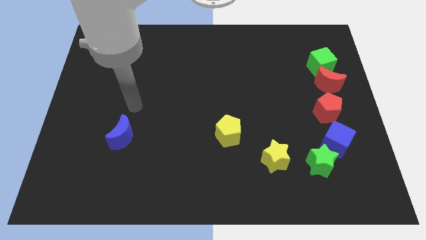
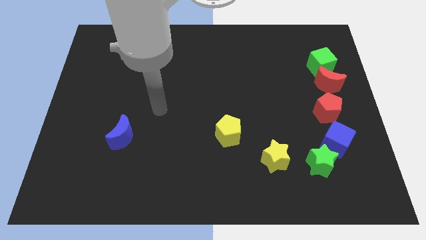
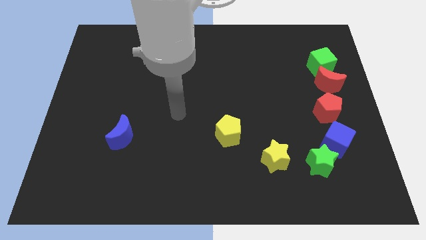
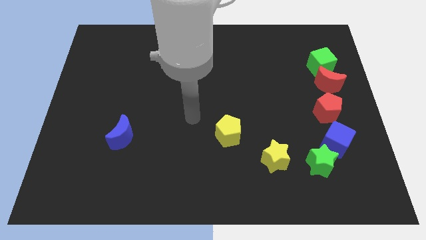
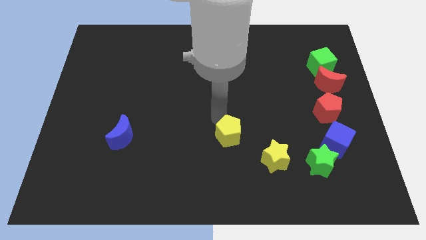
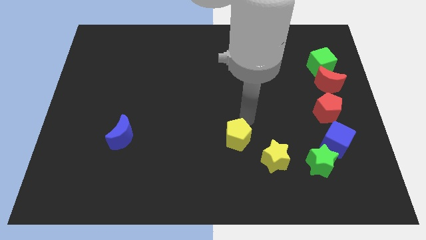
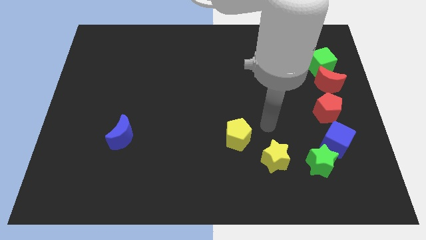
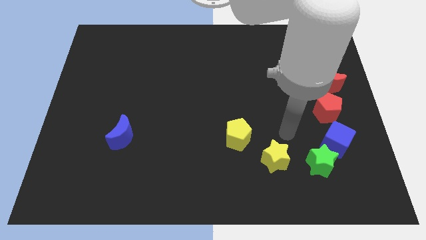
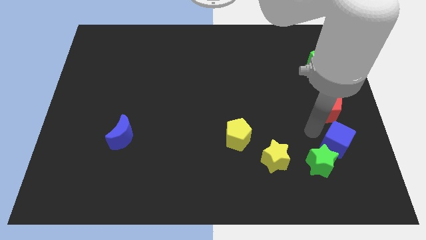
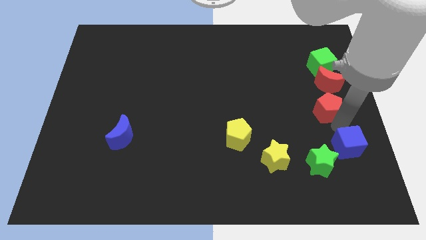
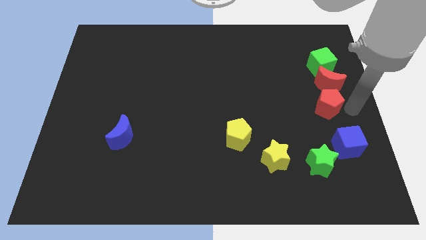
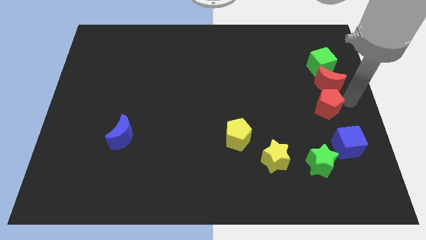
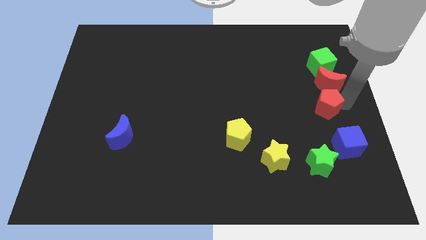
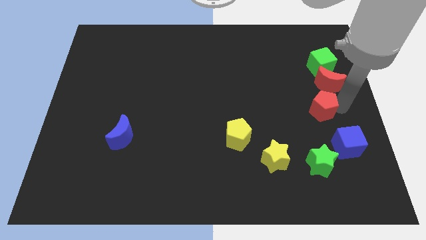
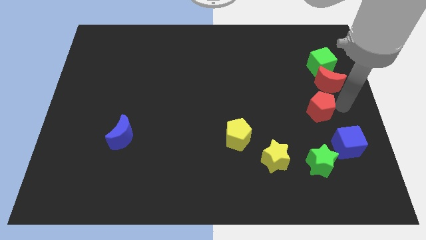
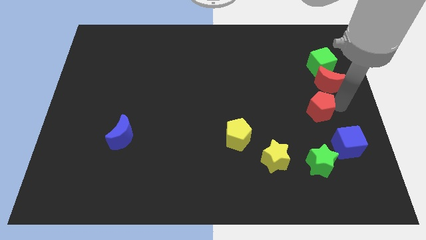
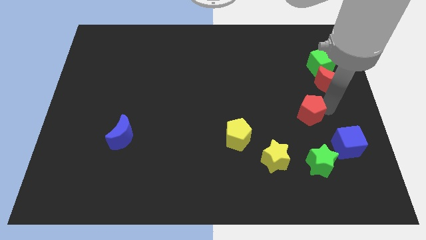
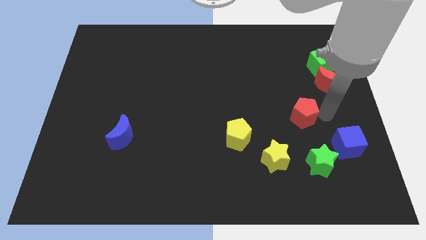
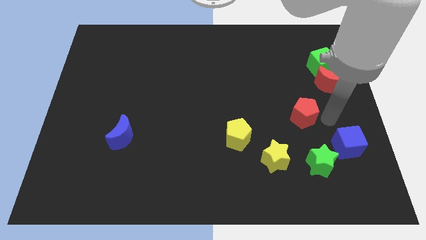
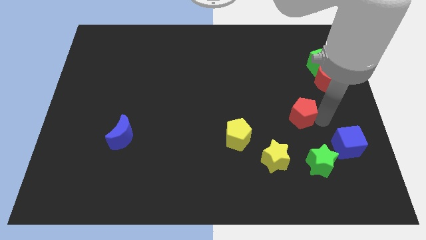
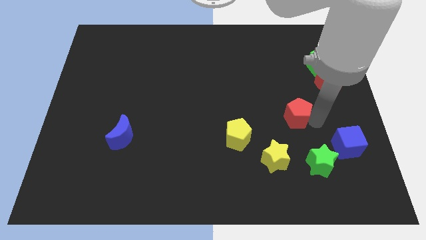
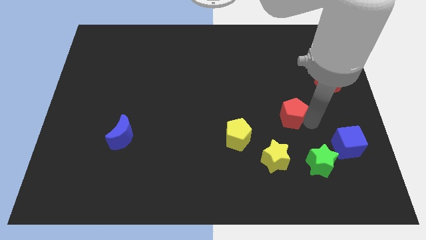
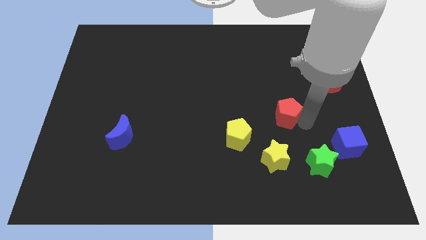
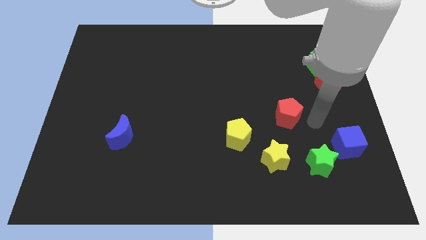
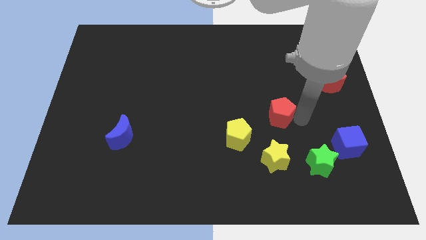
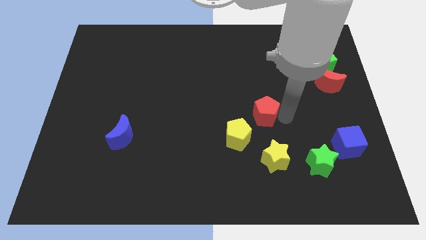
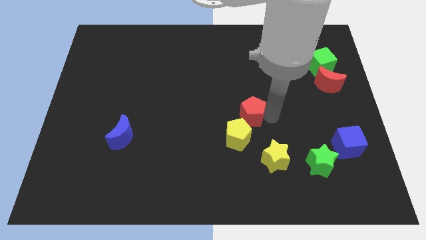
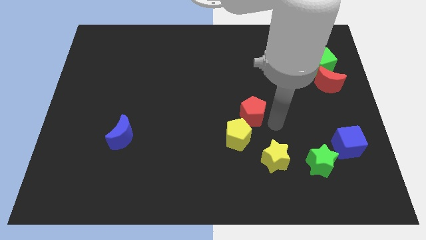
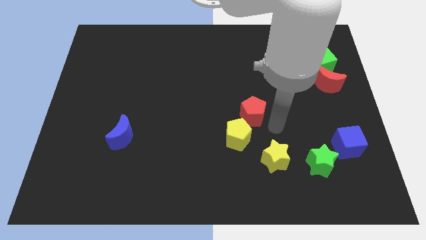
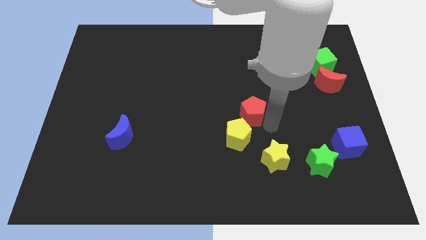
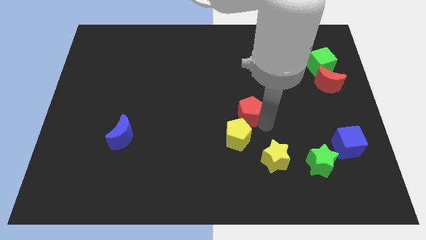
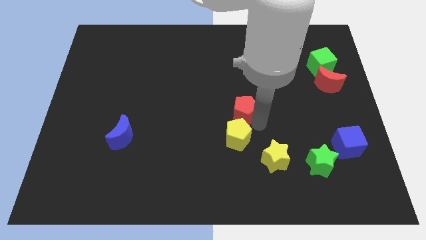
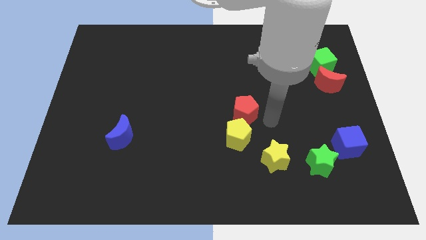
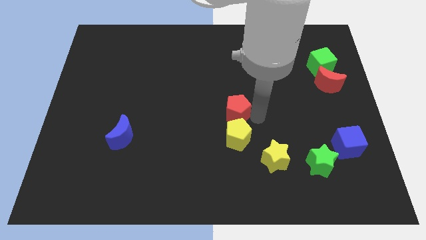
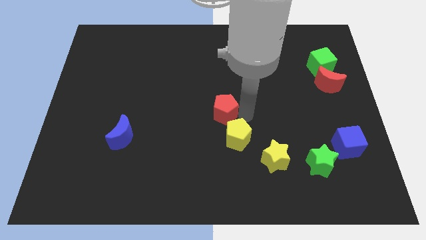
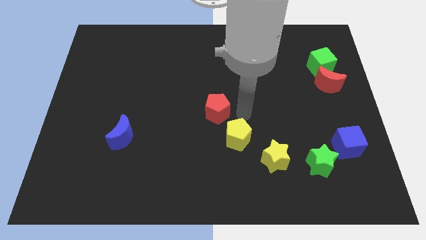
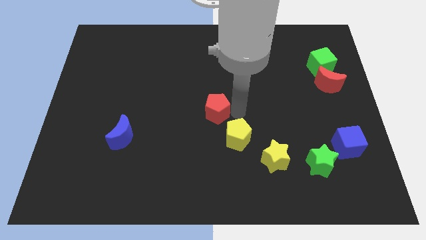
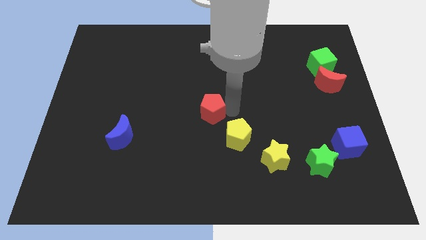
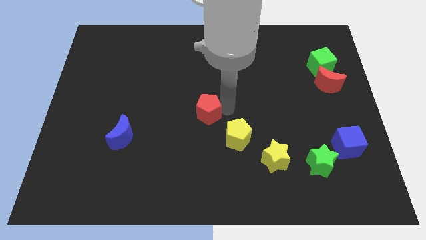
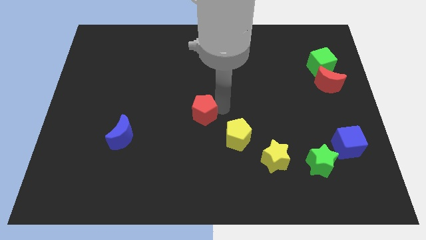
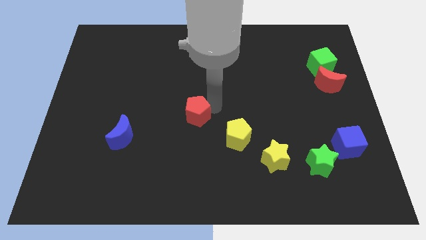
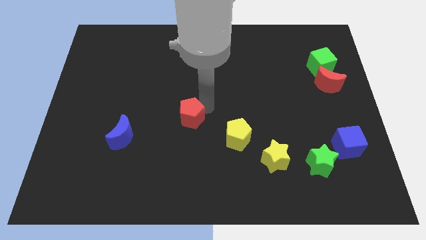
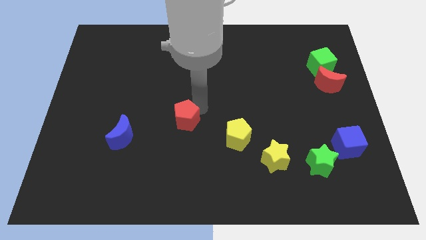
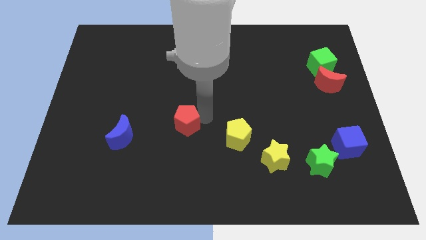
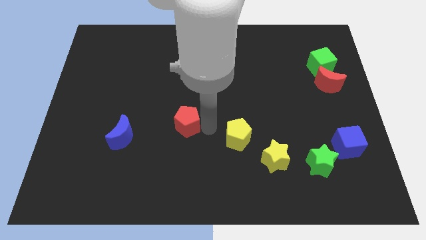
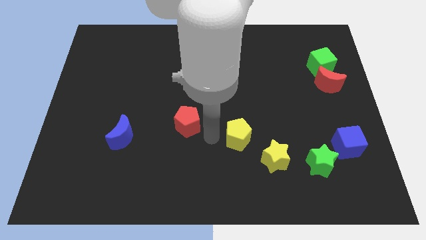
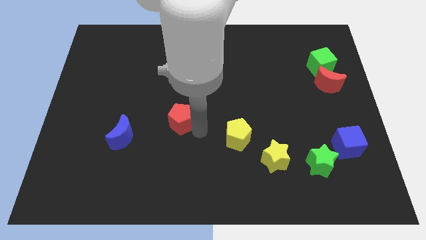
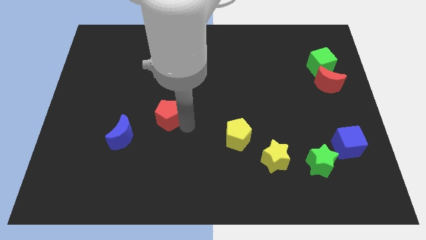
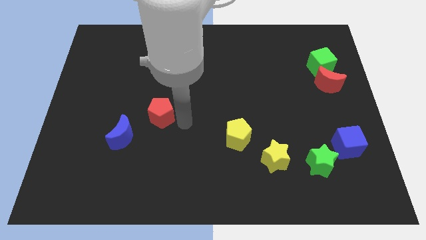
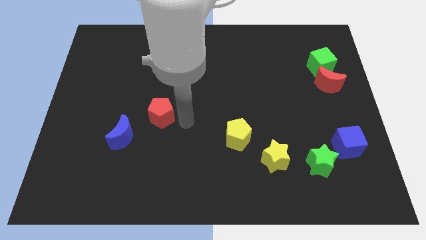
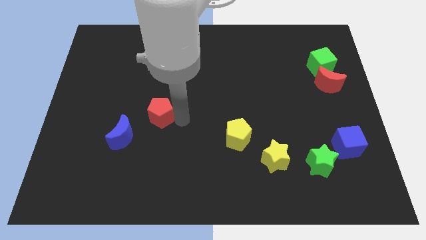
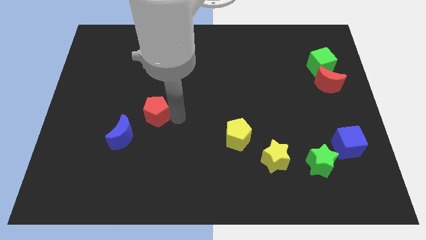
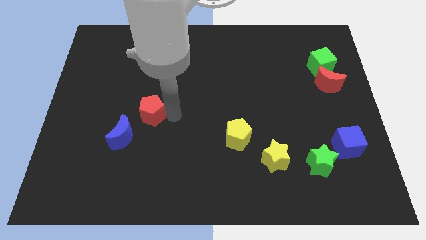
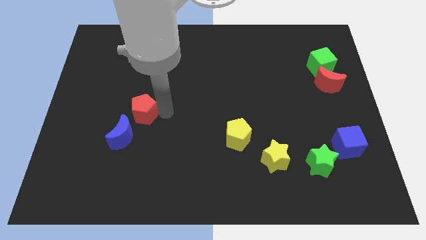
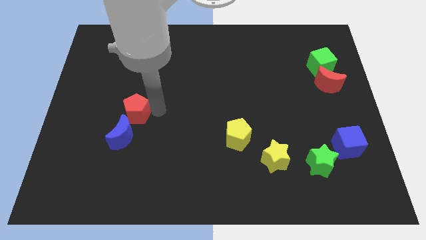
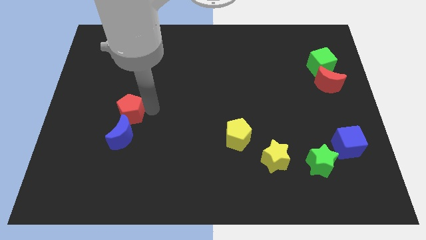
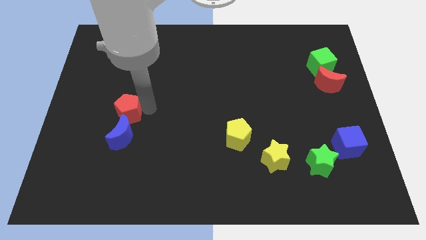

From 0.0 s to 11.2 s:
put the red pentagon to the top left of the blue moon

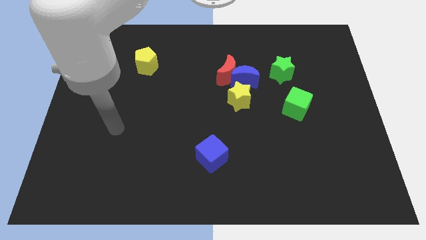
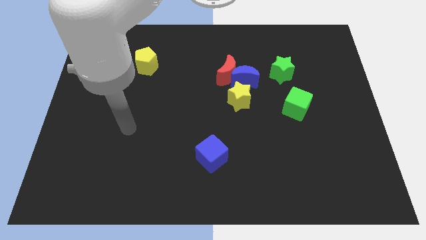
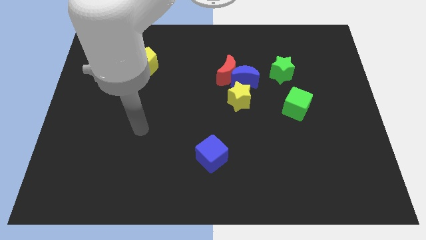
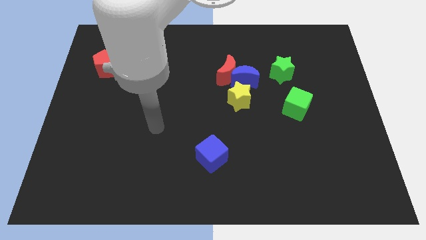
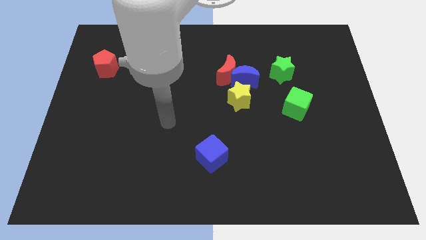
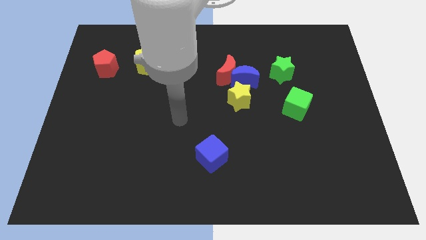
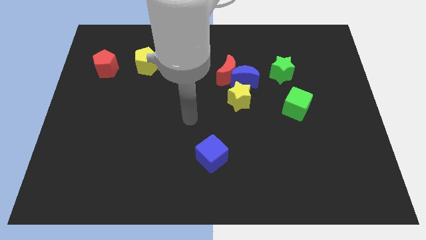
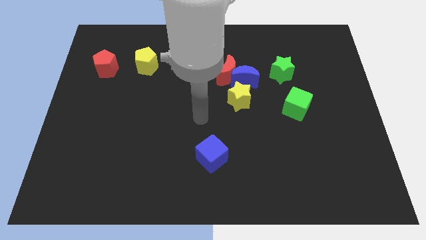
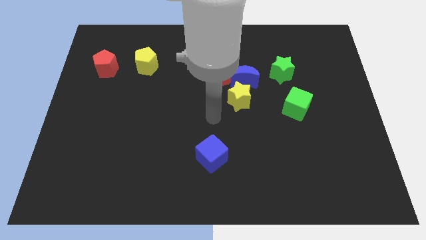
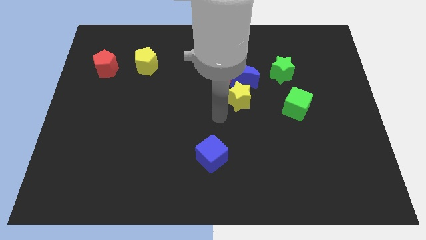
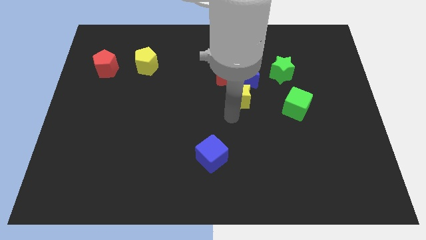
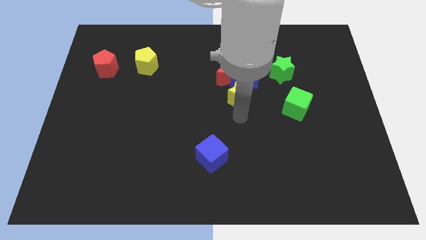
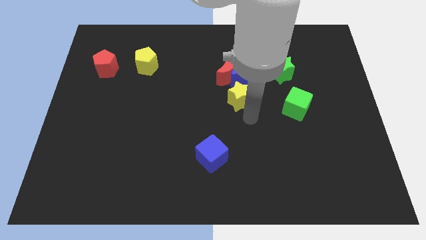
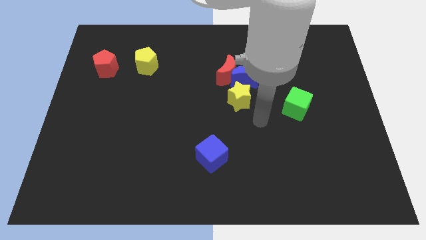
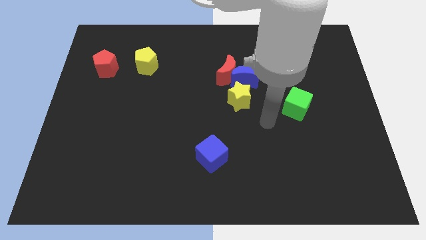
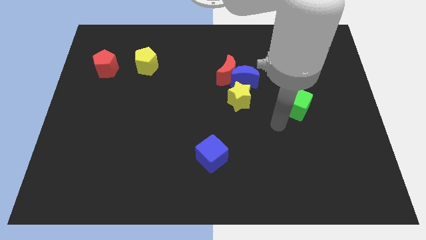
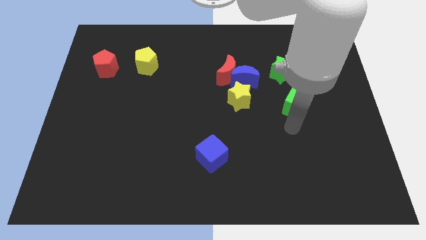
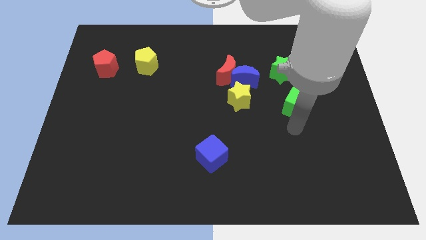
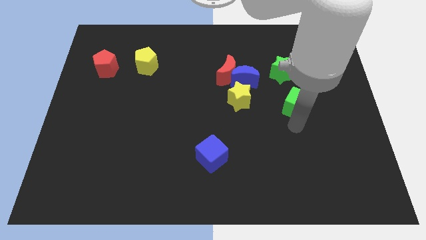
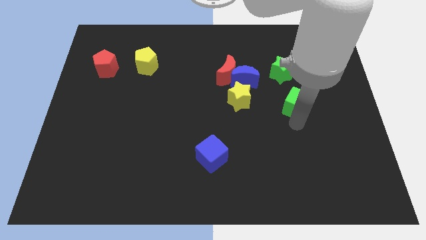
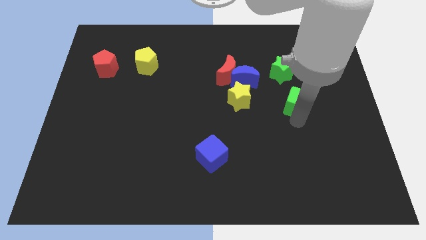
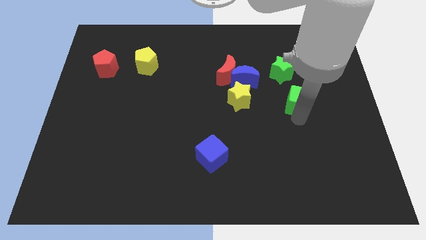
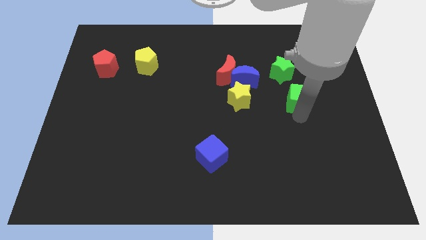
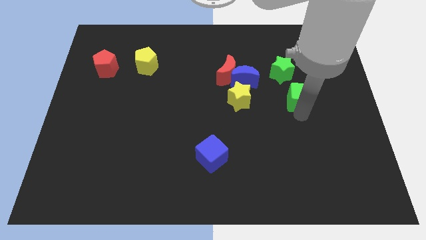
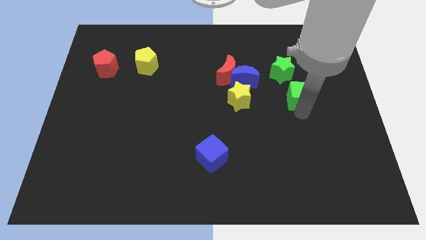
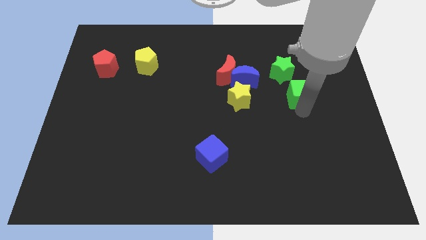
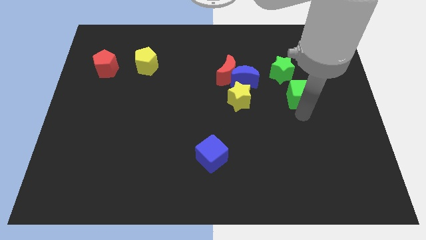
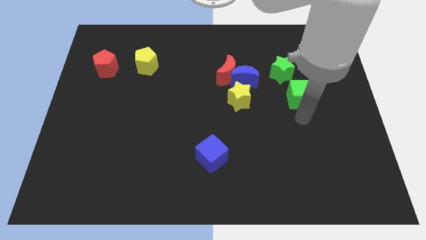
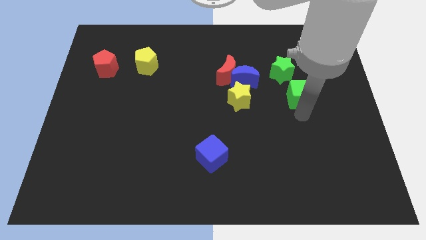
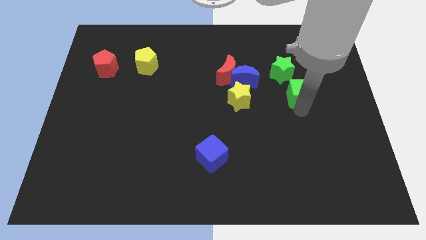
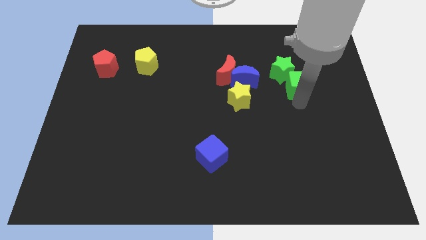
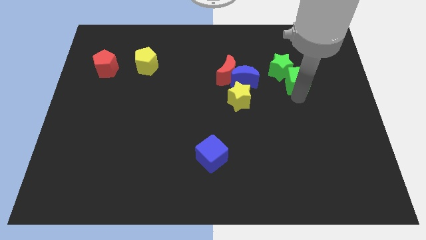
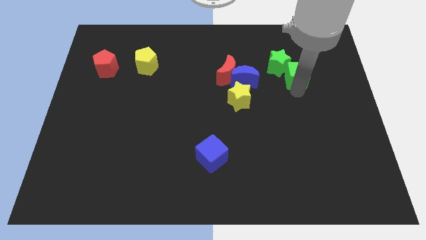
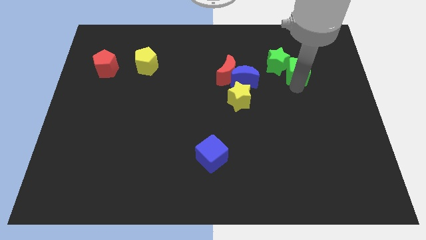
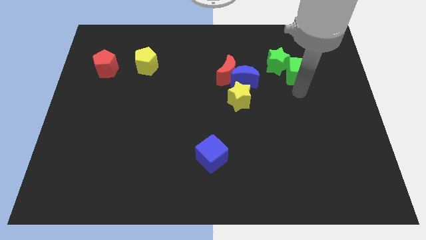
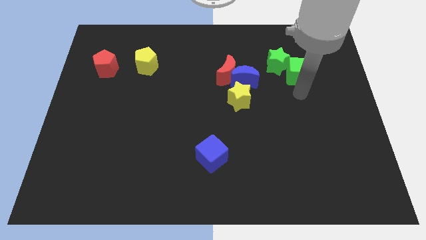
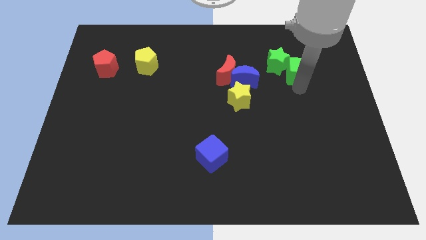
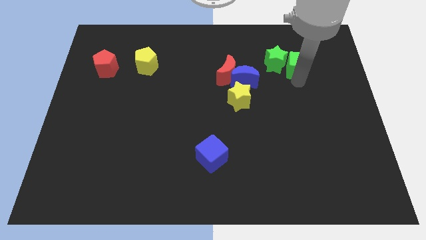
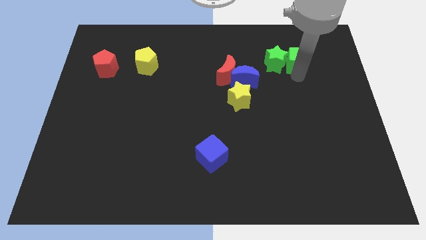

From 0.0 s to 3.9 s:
put the green cube to the top right of the green star
